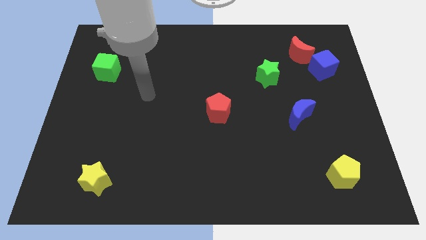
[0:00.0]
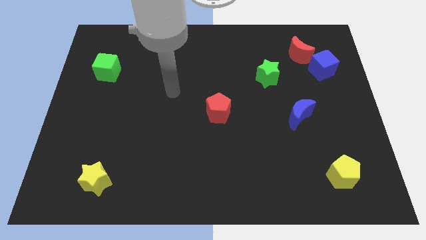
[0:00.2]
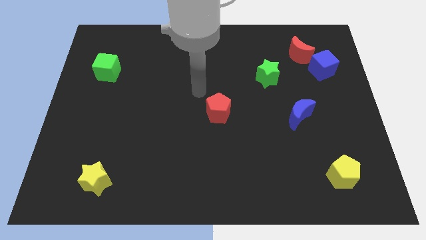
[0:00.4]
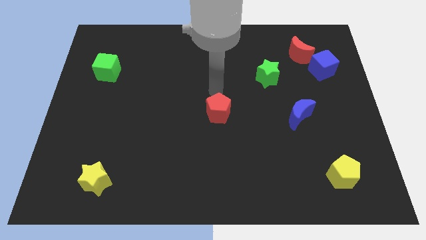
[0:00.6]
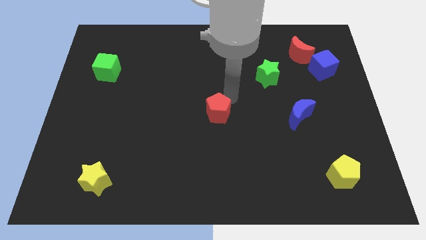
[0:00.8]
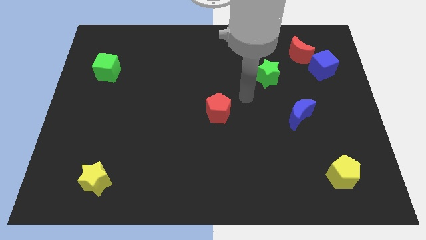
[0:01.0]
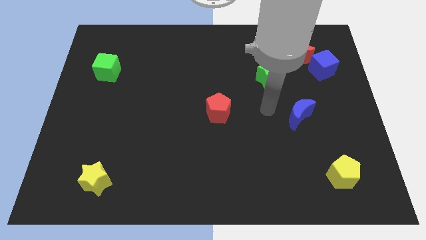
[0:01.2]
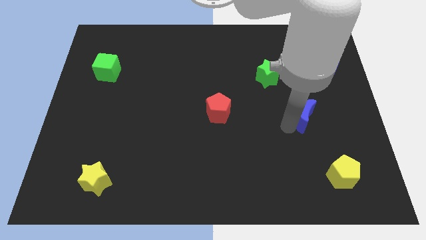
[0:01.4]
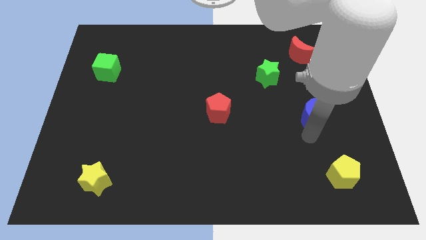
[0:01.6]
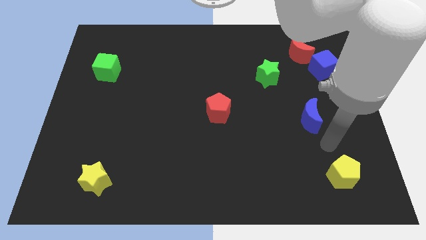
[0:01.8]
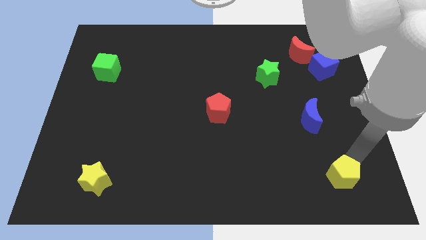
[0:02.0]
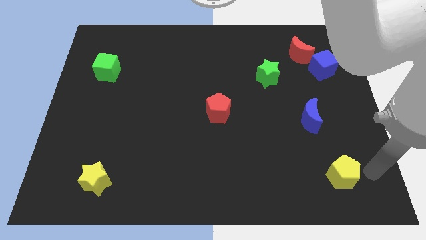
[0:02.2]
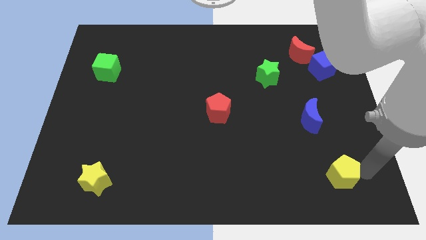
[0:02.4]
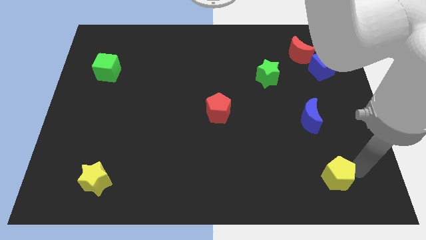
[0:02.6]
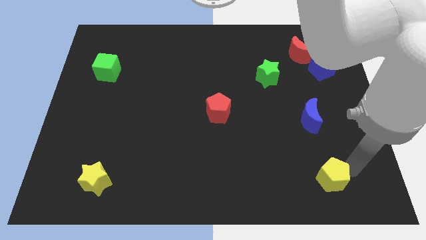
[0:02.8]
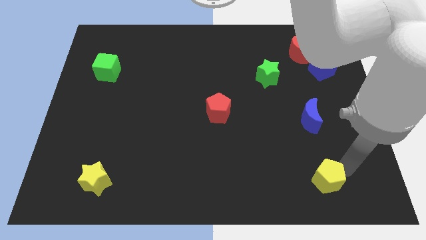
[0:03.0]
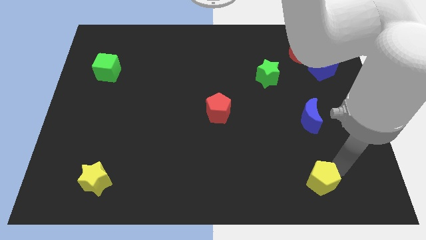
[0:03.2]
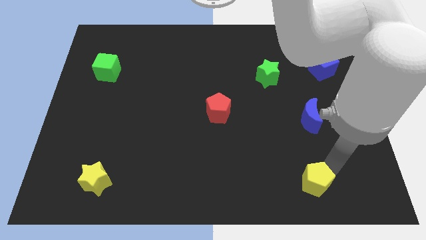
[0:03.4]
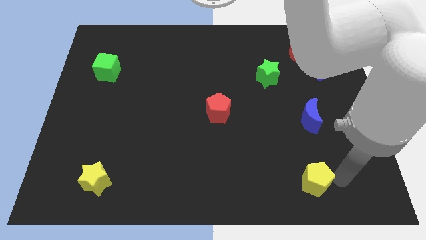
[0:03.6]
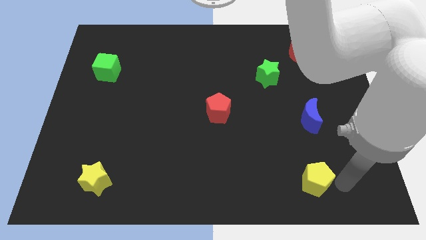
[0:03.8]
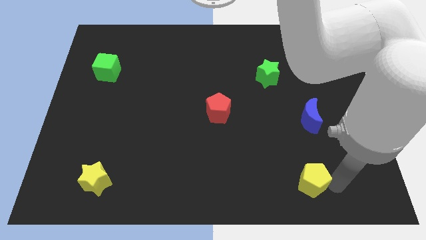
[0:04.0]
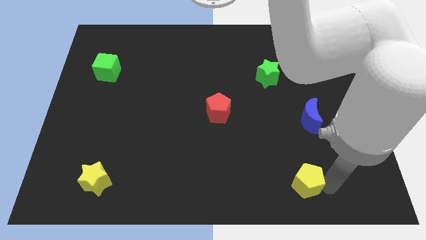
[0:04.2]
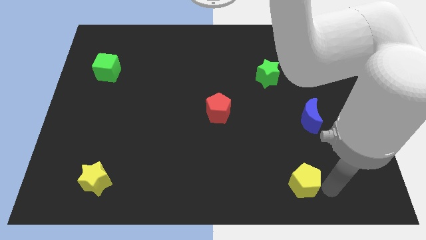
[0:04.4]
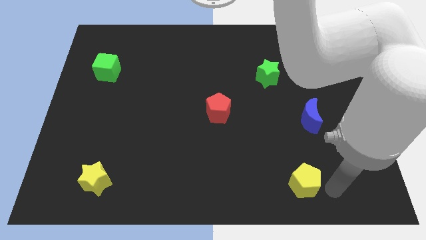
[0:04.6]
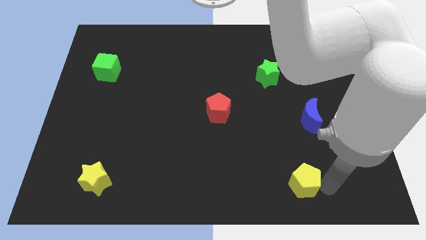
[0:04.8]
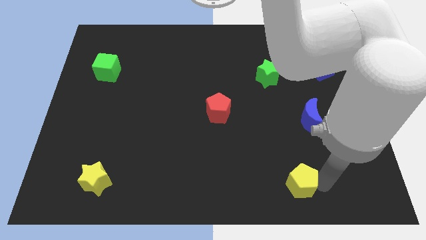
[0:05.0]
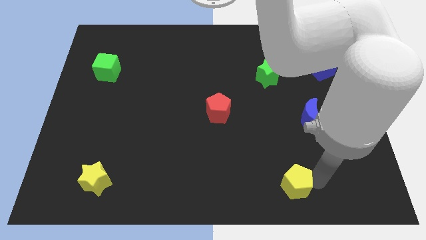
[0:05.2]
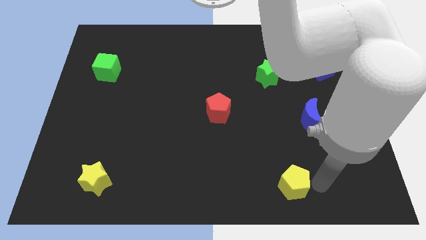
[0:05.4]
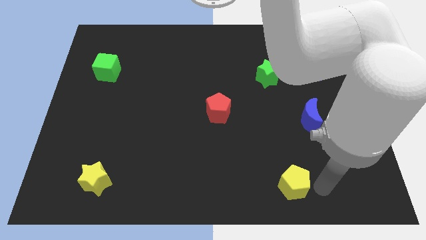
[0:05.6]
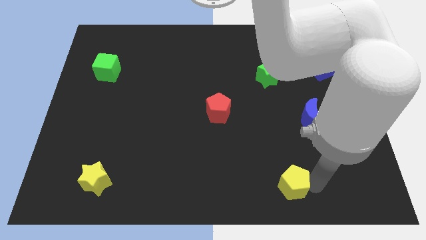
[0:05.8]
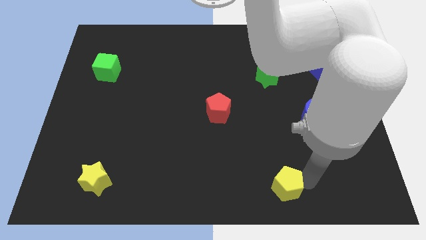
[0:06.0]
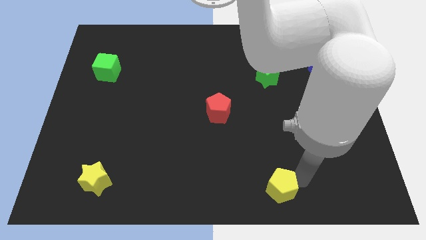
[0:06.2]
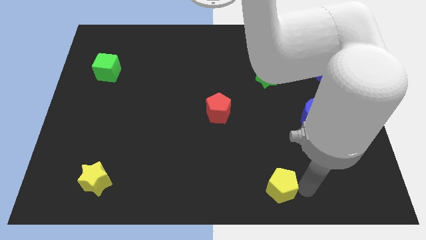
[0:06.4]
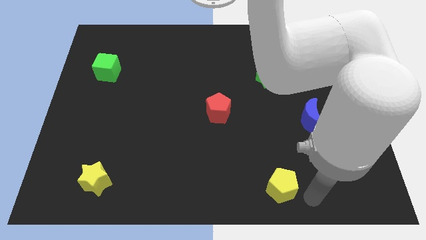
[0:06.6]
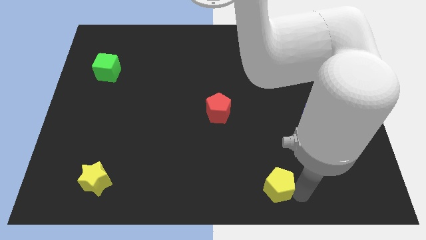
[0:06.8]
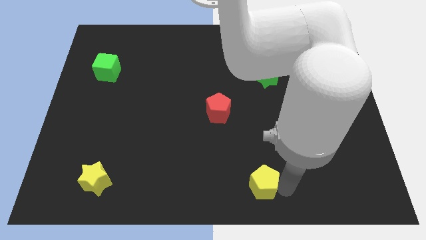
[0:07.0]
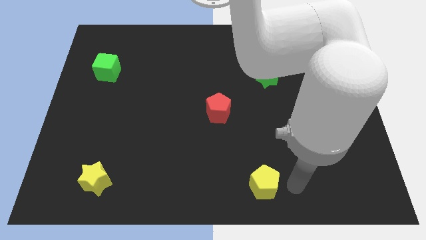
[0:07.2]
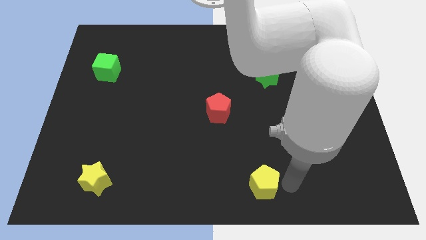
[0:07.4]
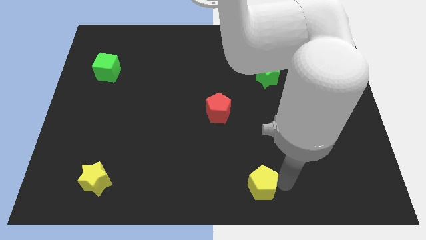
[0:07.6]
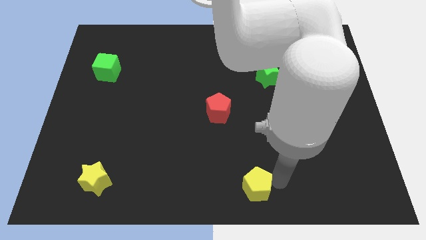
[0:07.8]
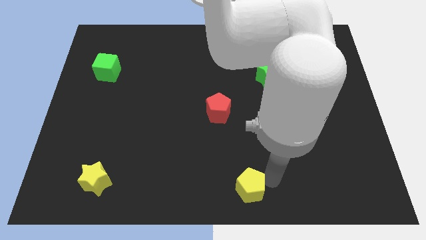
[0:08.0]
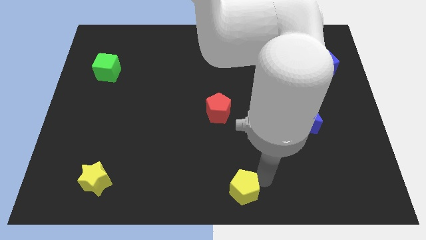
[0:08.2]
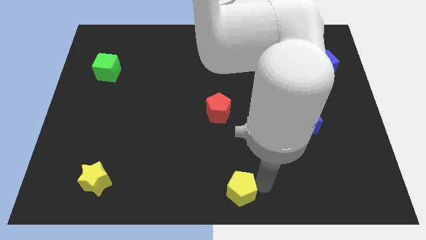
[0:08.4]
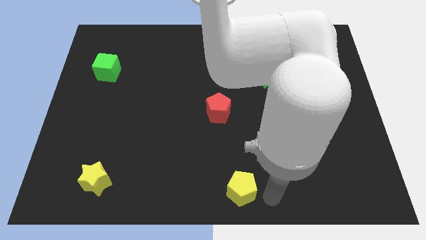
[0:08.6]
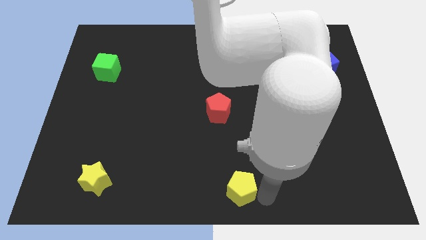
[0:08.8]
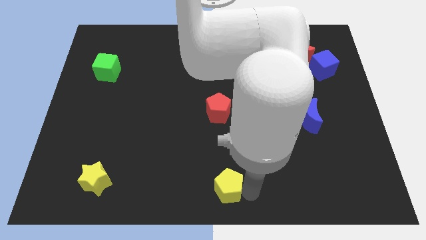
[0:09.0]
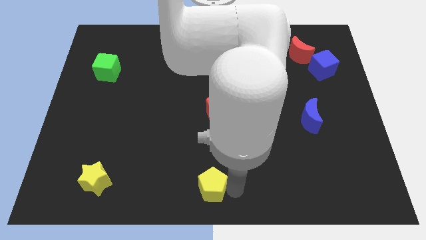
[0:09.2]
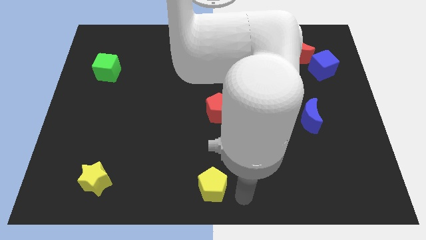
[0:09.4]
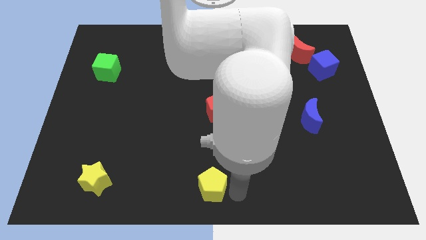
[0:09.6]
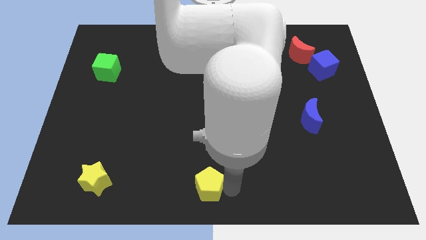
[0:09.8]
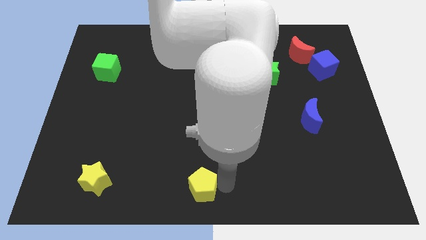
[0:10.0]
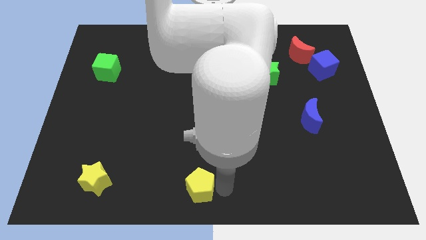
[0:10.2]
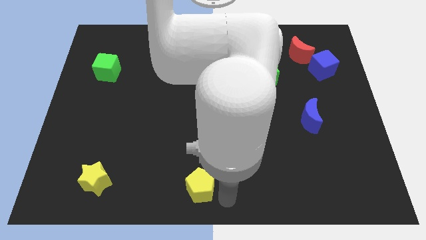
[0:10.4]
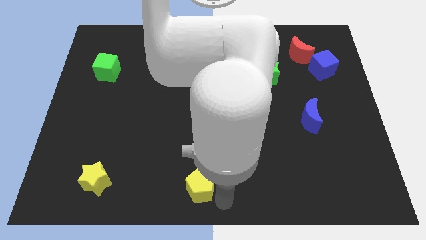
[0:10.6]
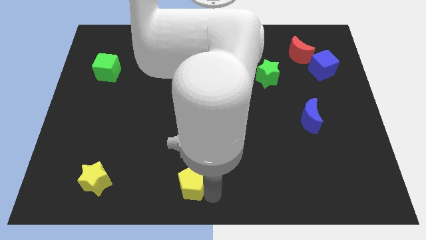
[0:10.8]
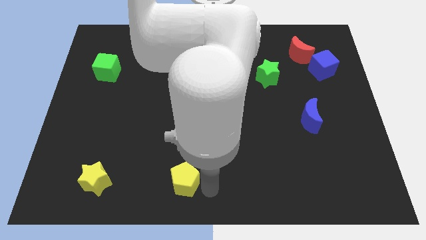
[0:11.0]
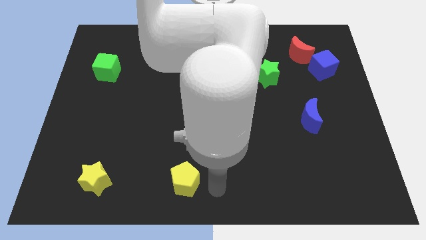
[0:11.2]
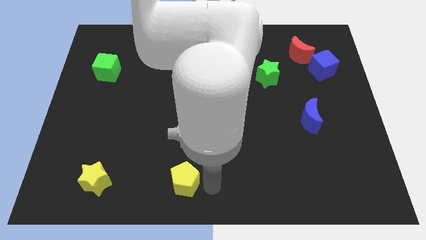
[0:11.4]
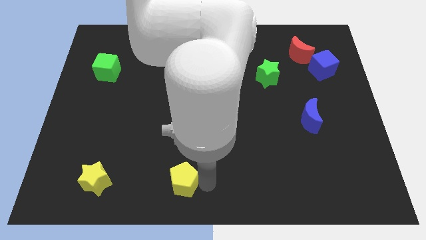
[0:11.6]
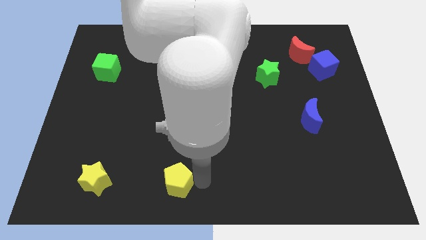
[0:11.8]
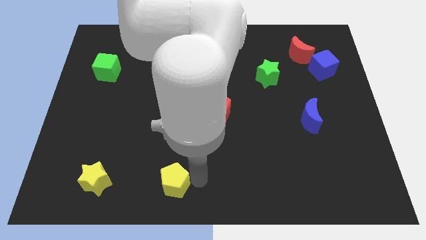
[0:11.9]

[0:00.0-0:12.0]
move the yellow pentagon to the right of the yellow star

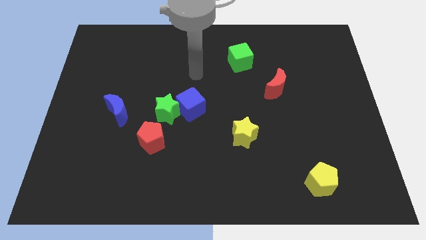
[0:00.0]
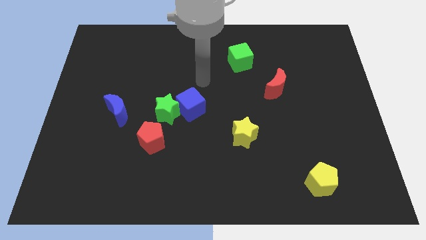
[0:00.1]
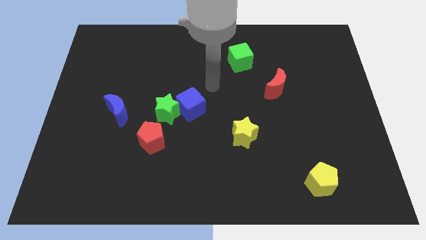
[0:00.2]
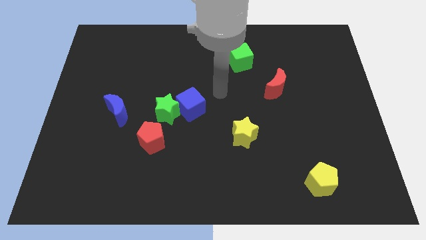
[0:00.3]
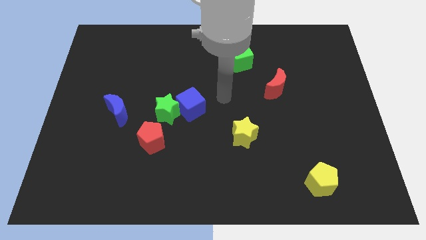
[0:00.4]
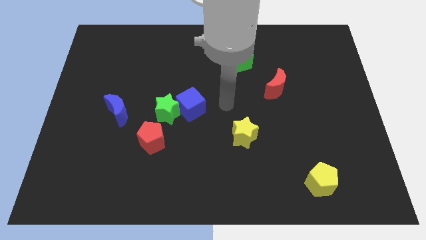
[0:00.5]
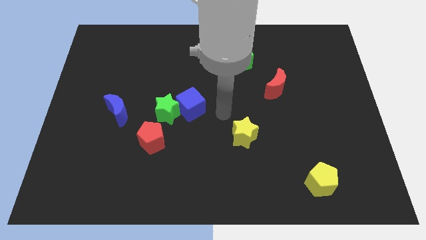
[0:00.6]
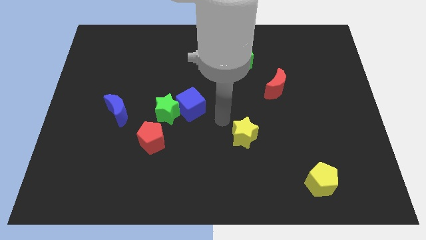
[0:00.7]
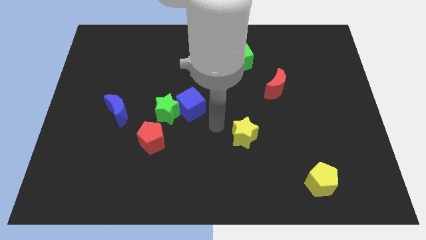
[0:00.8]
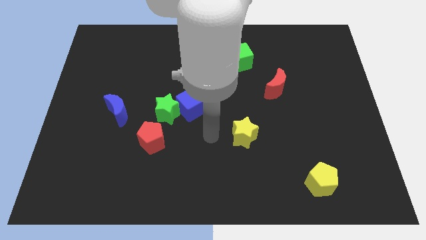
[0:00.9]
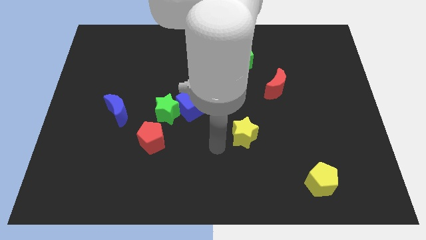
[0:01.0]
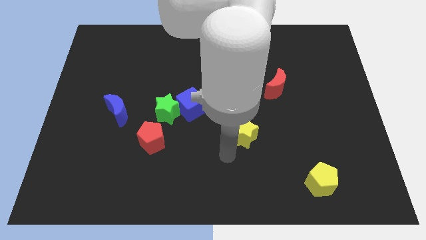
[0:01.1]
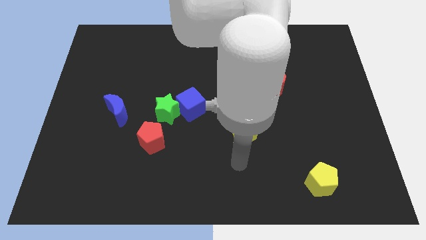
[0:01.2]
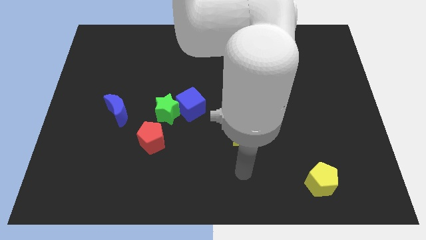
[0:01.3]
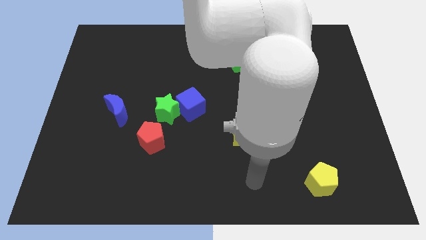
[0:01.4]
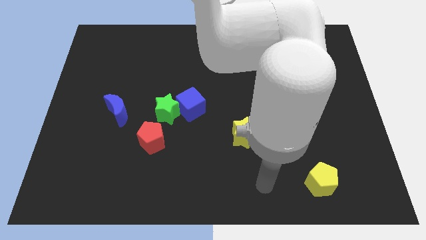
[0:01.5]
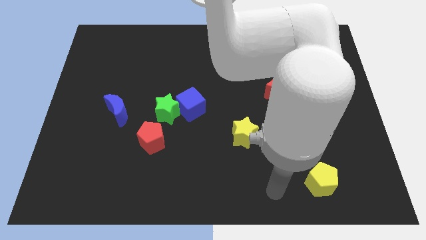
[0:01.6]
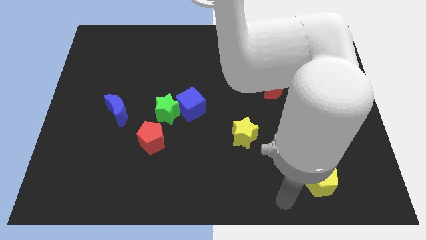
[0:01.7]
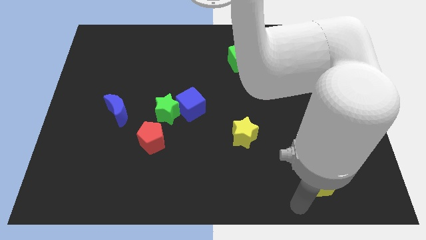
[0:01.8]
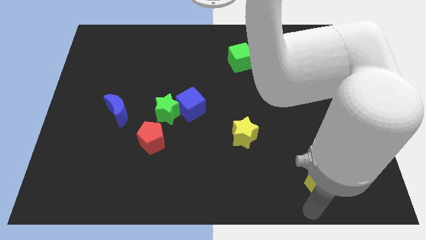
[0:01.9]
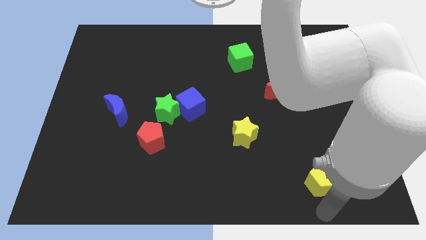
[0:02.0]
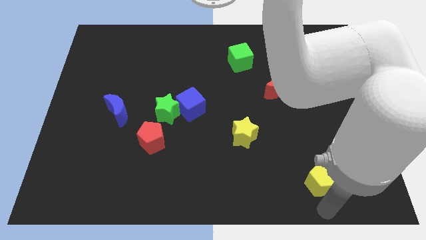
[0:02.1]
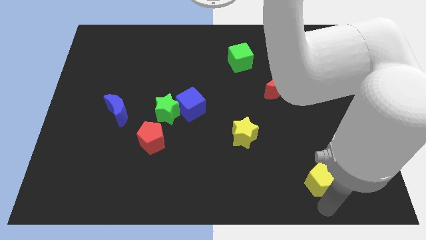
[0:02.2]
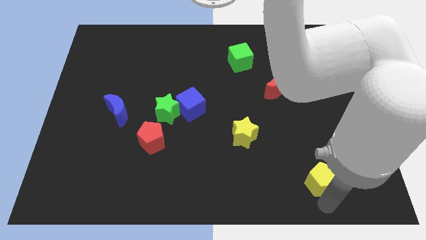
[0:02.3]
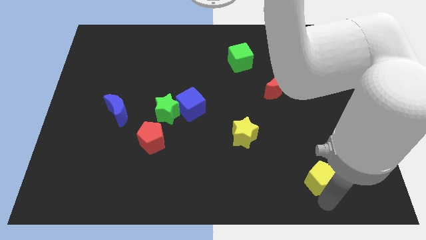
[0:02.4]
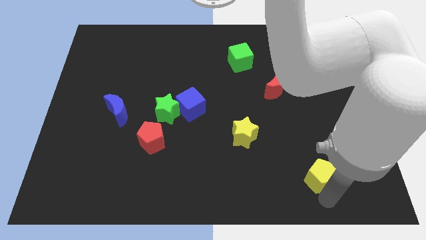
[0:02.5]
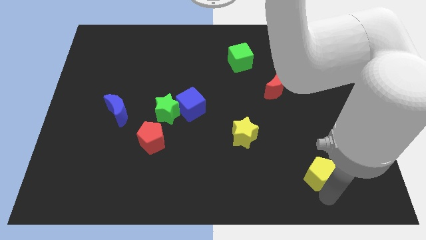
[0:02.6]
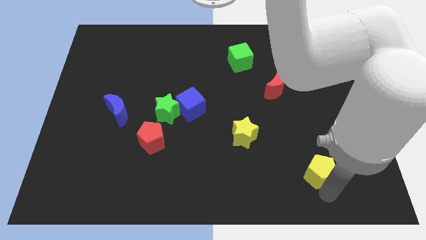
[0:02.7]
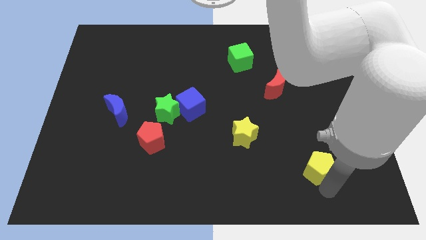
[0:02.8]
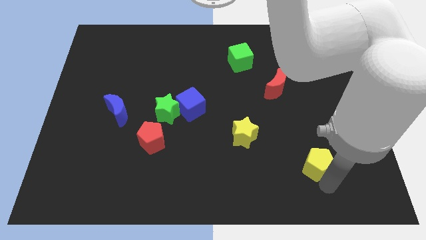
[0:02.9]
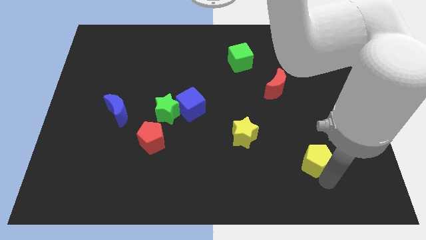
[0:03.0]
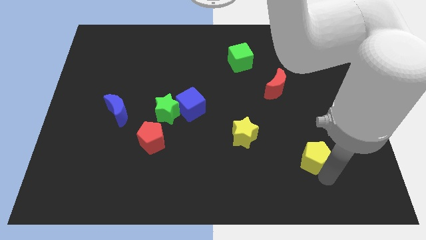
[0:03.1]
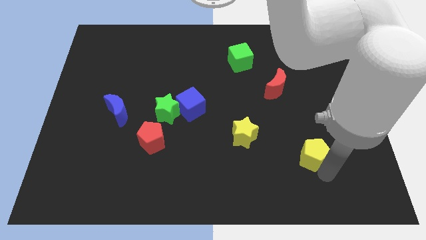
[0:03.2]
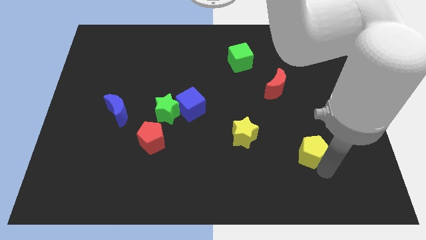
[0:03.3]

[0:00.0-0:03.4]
push the yellow pentagon to the right of the yellow star
